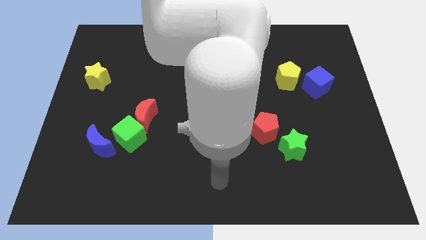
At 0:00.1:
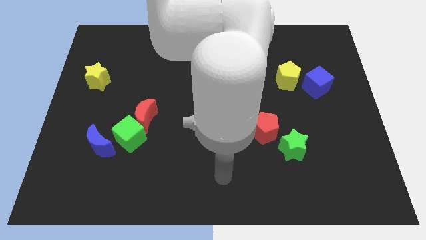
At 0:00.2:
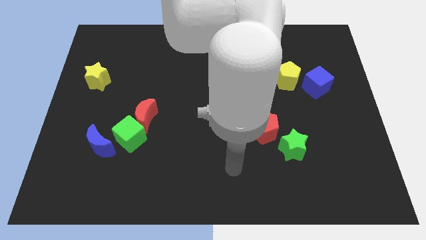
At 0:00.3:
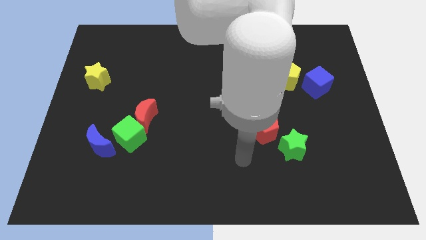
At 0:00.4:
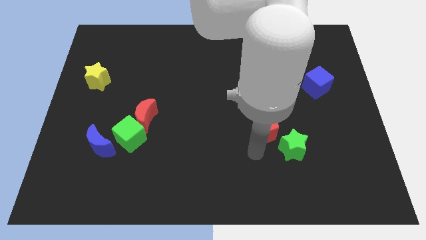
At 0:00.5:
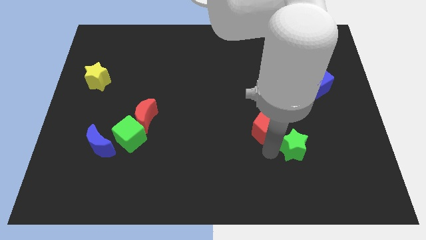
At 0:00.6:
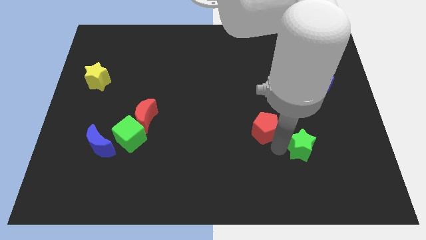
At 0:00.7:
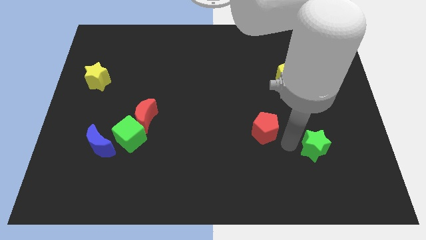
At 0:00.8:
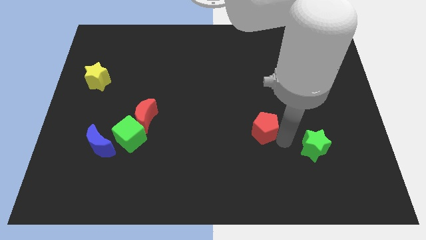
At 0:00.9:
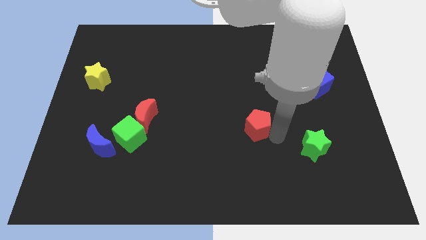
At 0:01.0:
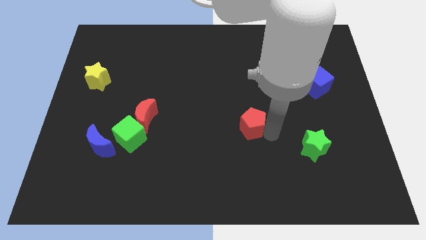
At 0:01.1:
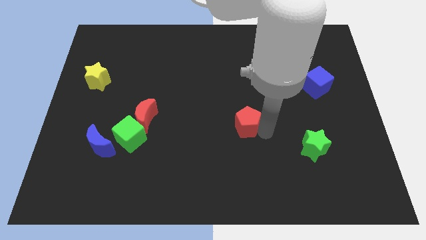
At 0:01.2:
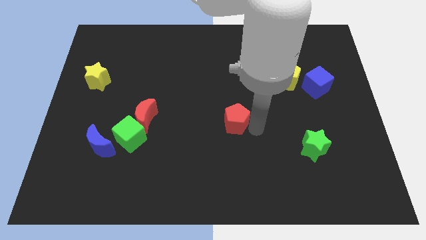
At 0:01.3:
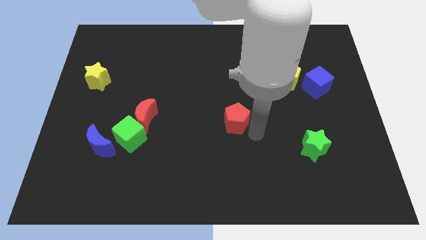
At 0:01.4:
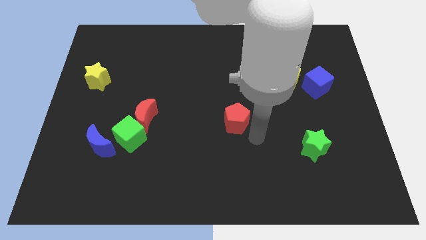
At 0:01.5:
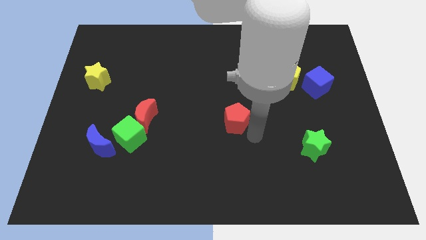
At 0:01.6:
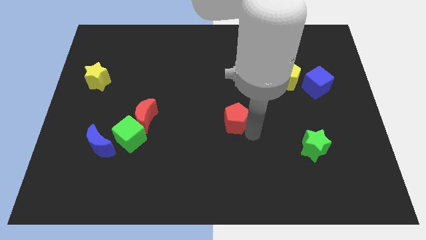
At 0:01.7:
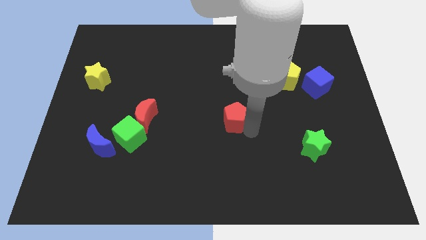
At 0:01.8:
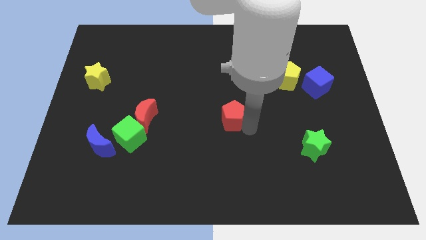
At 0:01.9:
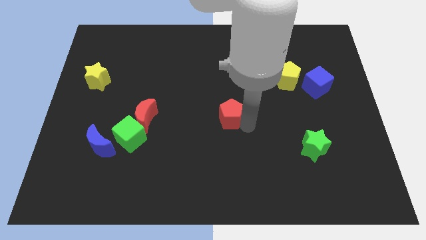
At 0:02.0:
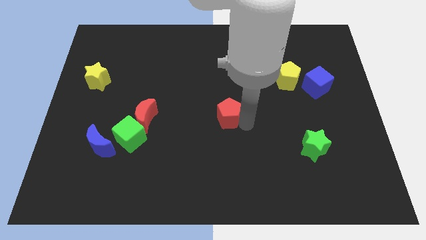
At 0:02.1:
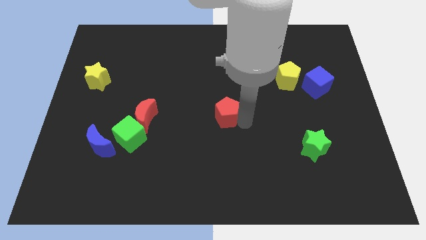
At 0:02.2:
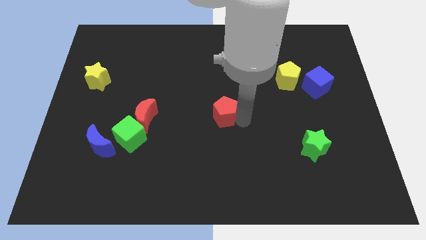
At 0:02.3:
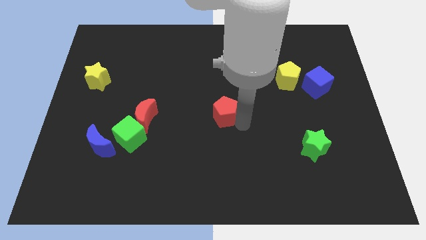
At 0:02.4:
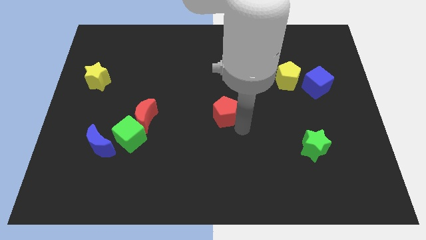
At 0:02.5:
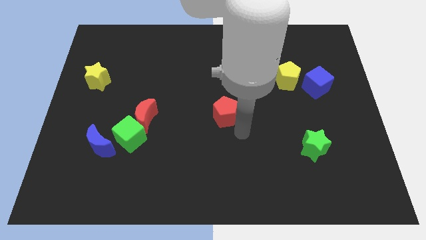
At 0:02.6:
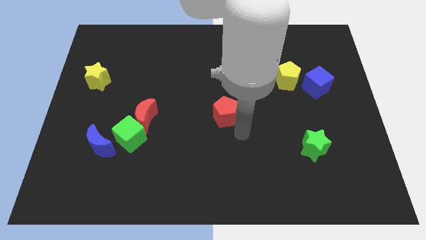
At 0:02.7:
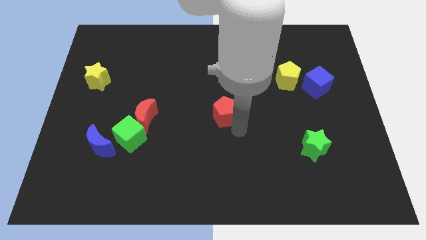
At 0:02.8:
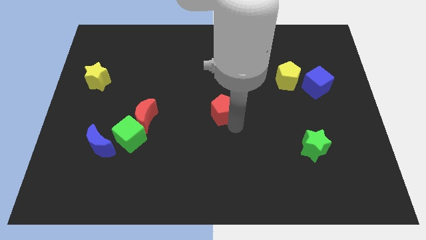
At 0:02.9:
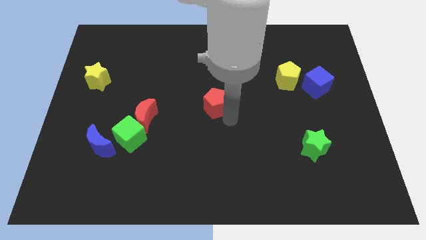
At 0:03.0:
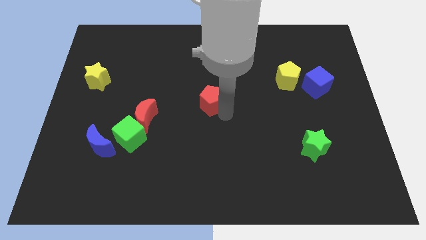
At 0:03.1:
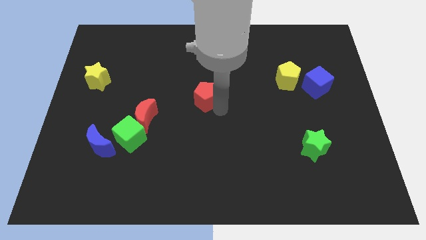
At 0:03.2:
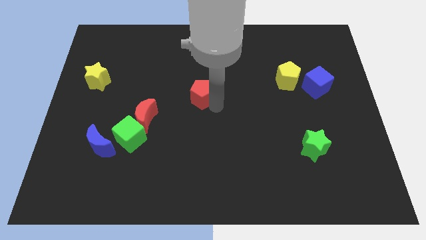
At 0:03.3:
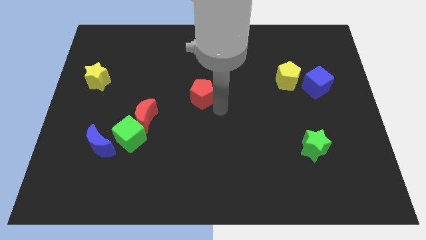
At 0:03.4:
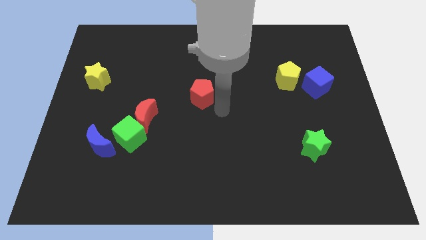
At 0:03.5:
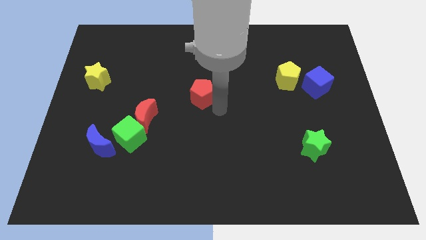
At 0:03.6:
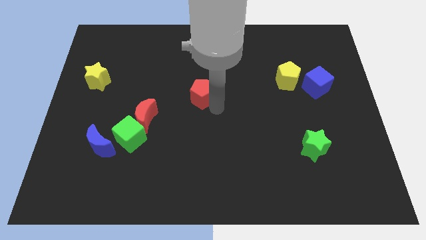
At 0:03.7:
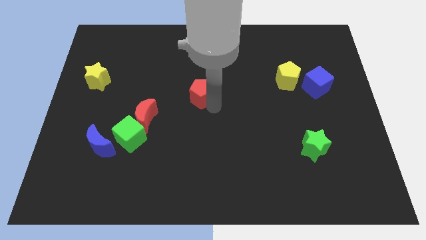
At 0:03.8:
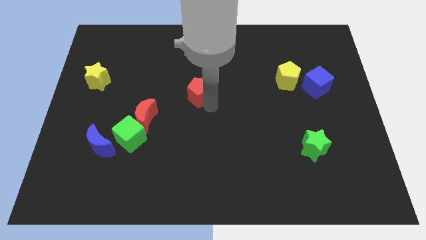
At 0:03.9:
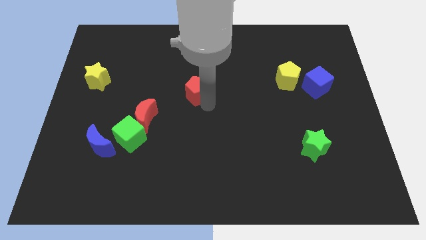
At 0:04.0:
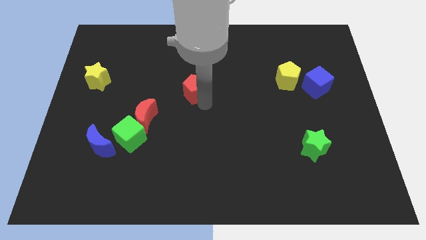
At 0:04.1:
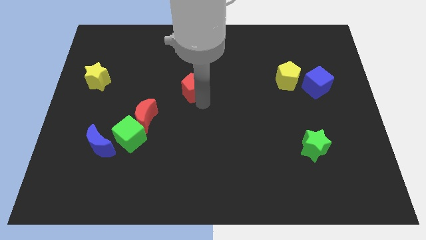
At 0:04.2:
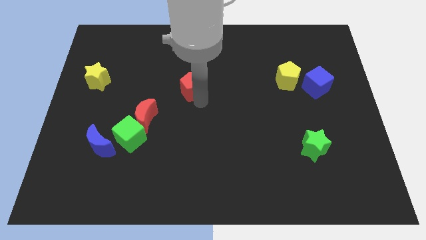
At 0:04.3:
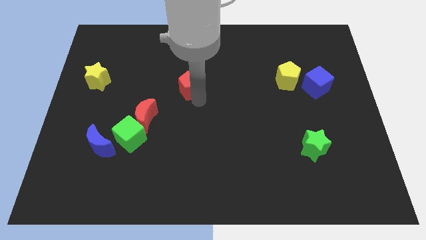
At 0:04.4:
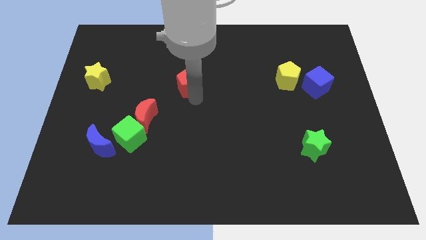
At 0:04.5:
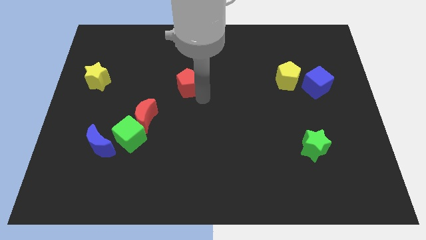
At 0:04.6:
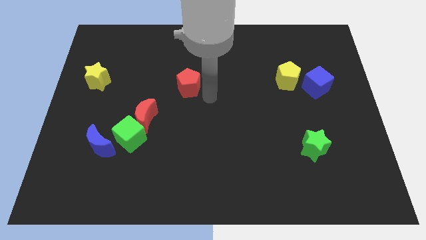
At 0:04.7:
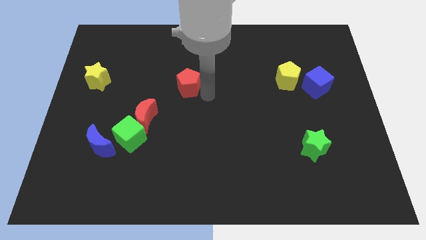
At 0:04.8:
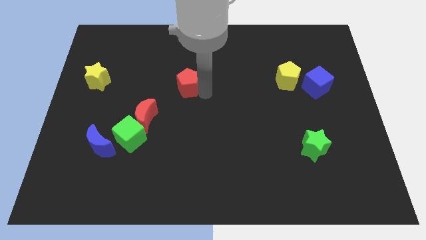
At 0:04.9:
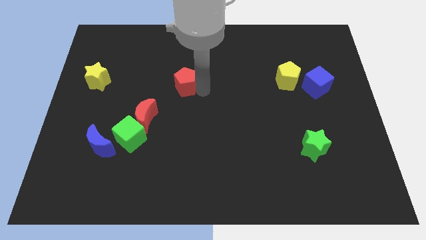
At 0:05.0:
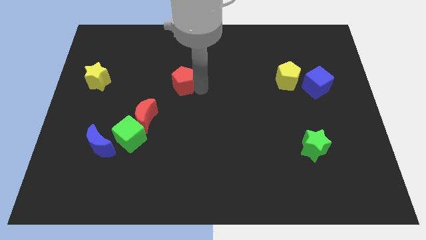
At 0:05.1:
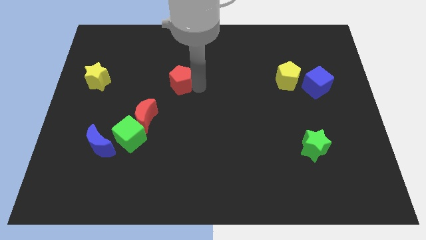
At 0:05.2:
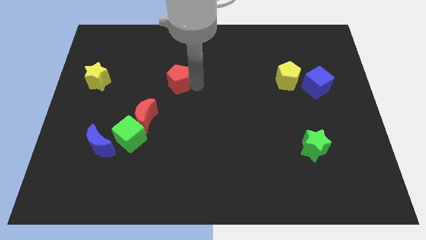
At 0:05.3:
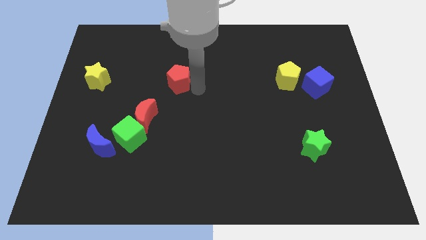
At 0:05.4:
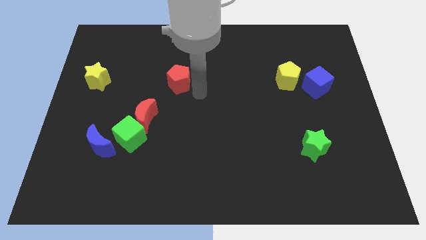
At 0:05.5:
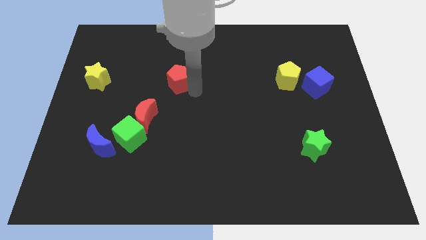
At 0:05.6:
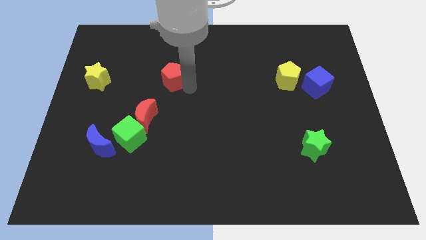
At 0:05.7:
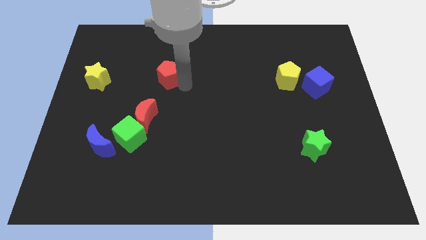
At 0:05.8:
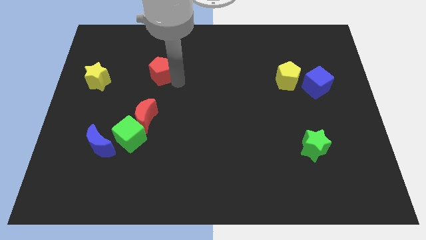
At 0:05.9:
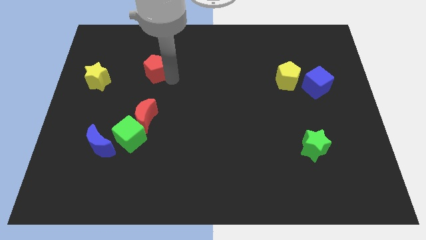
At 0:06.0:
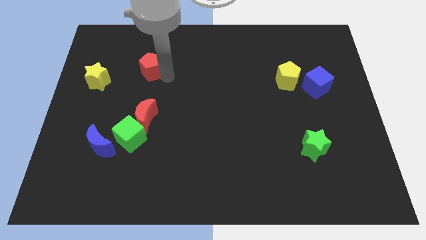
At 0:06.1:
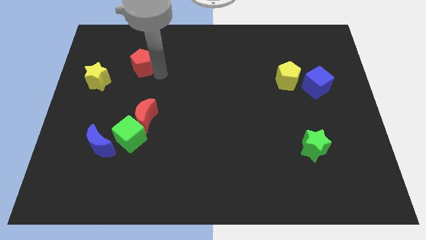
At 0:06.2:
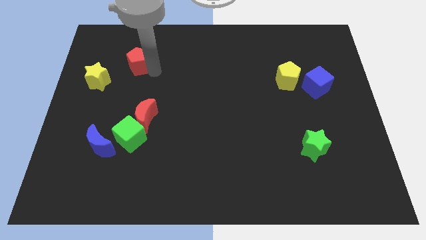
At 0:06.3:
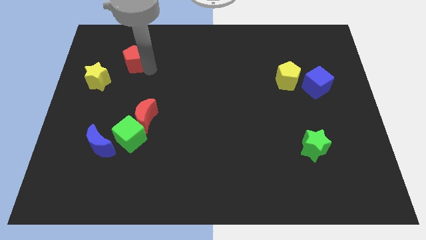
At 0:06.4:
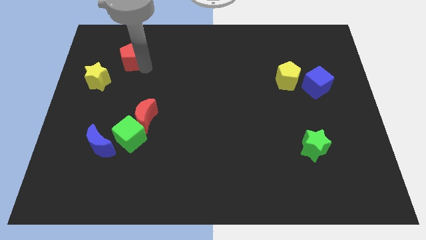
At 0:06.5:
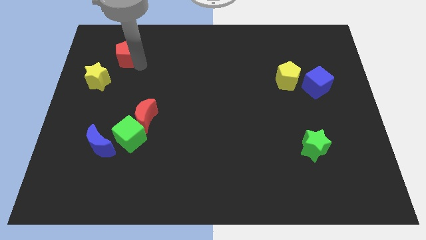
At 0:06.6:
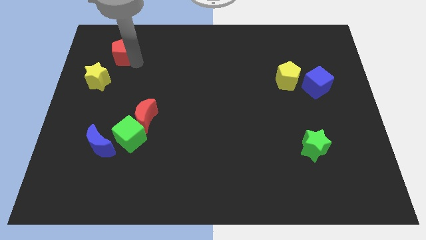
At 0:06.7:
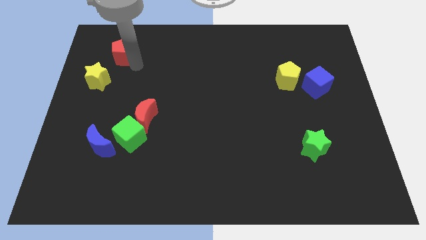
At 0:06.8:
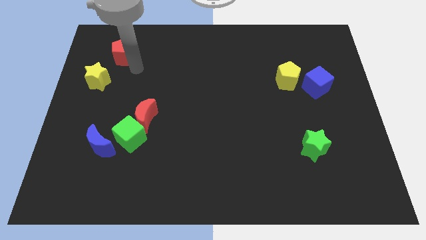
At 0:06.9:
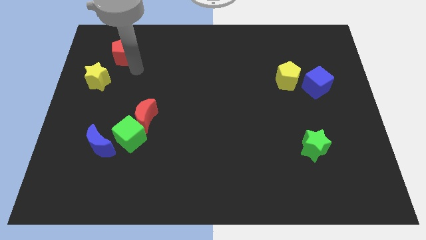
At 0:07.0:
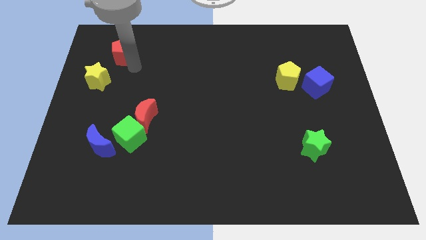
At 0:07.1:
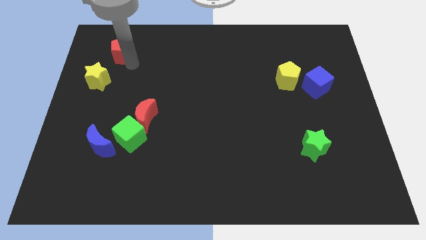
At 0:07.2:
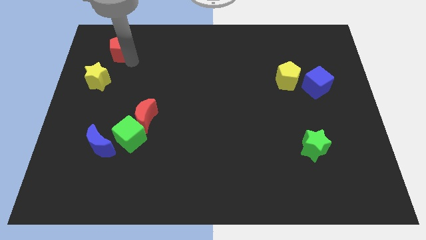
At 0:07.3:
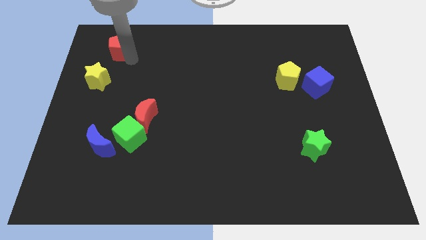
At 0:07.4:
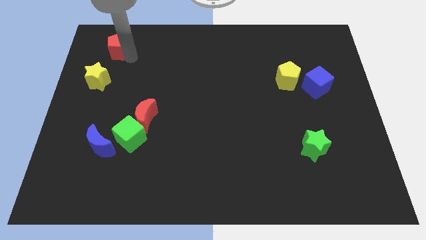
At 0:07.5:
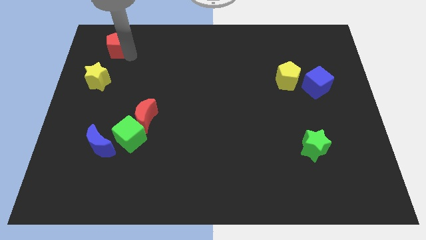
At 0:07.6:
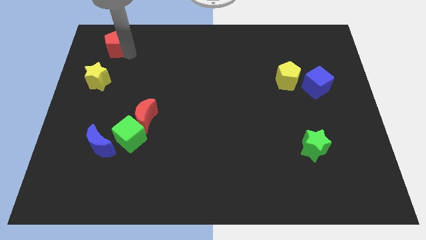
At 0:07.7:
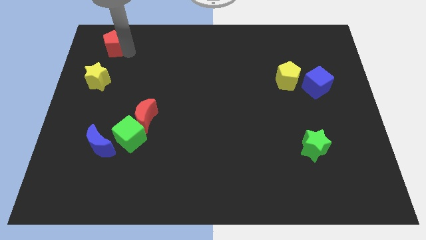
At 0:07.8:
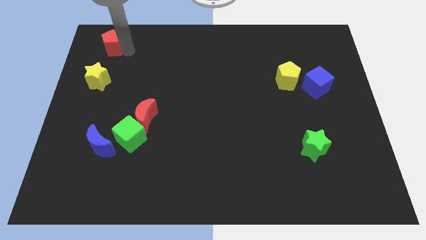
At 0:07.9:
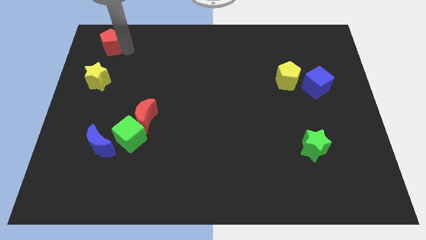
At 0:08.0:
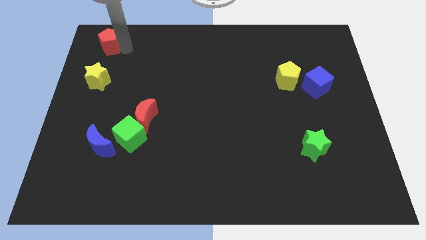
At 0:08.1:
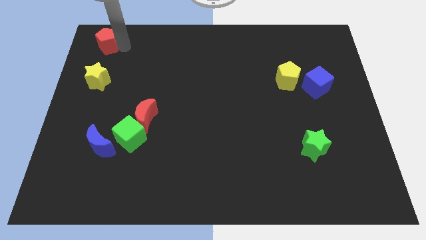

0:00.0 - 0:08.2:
push the red pentagon to the top left of the board
